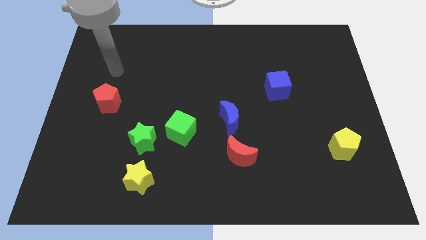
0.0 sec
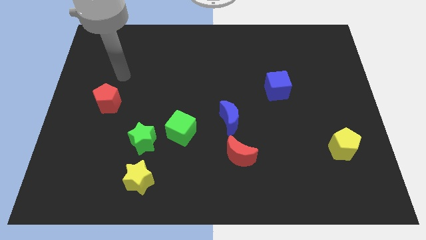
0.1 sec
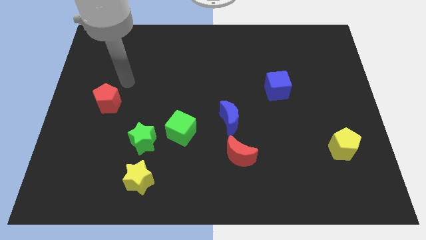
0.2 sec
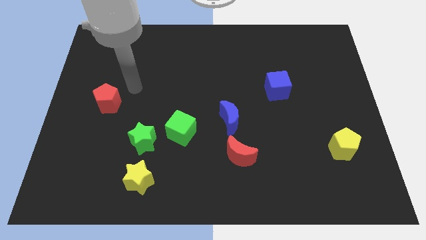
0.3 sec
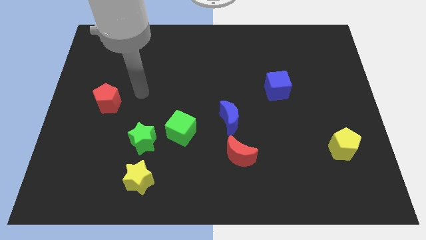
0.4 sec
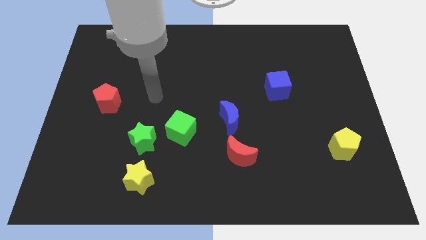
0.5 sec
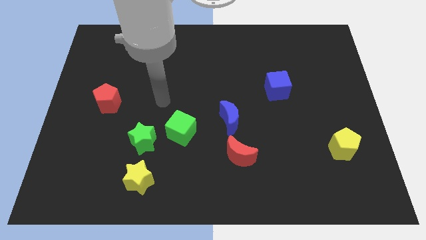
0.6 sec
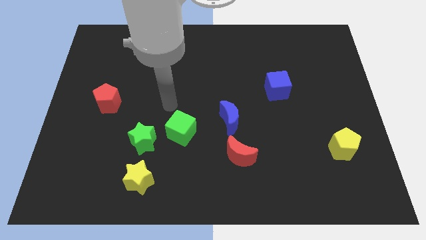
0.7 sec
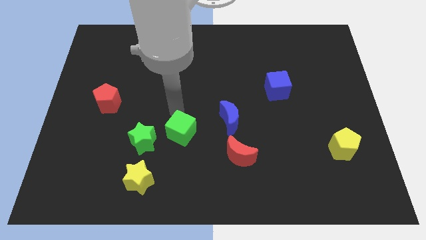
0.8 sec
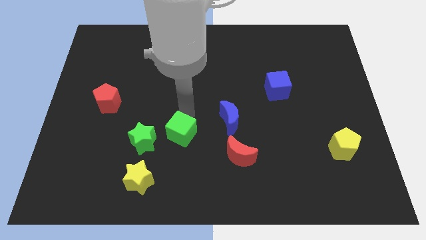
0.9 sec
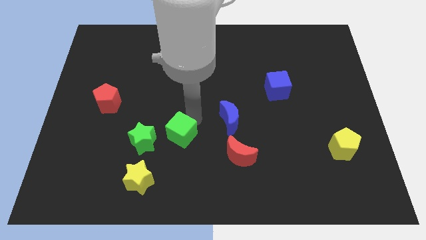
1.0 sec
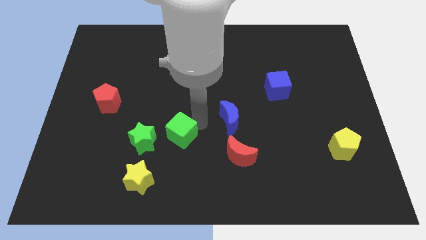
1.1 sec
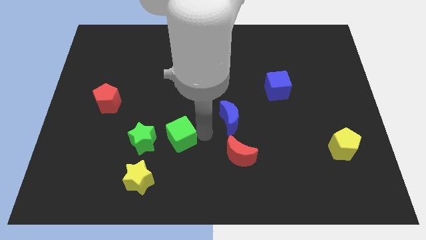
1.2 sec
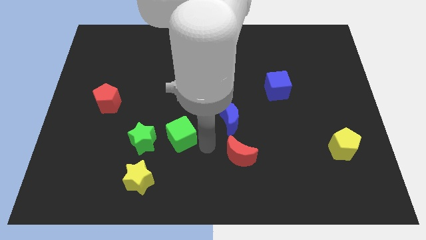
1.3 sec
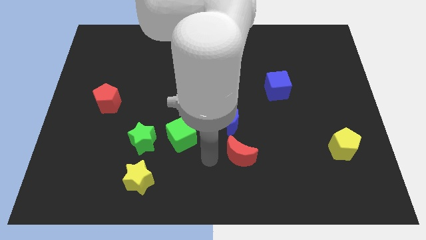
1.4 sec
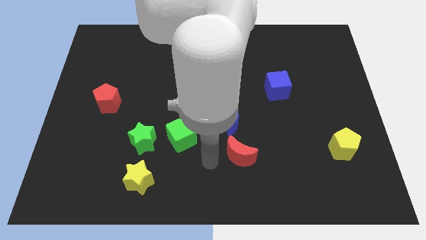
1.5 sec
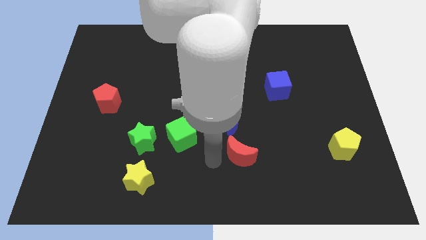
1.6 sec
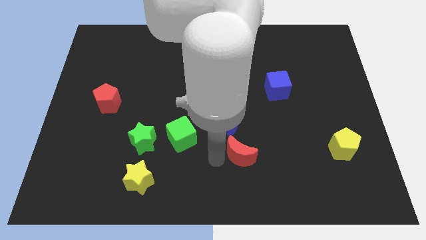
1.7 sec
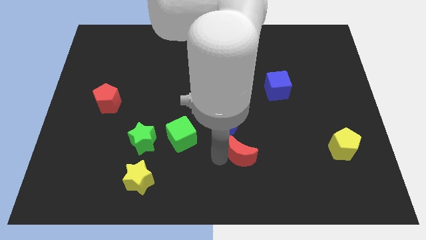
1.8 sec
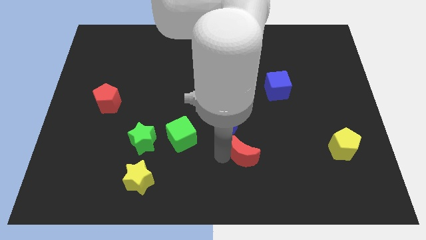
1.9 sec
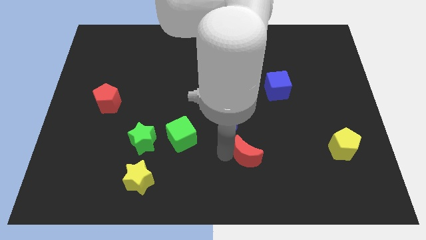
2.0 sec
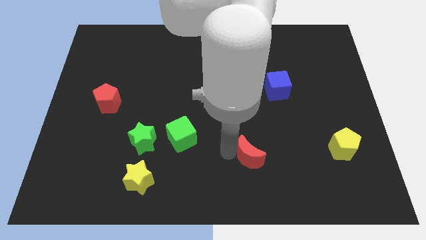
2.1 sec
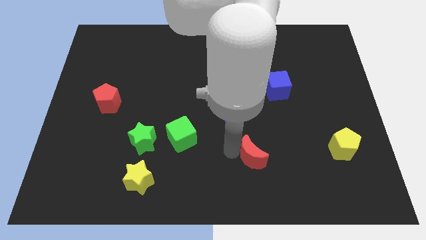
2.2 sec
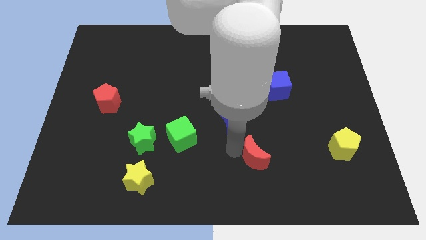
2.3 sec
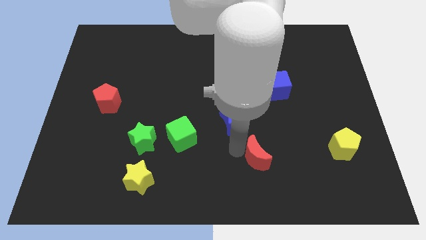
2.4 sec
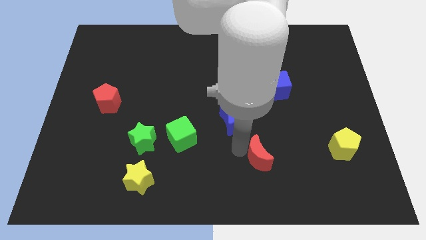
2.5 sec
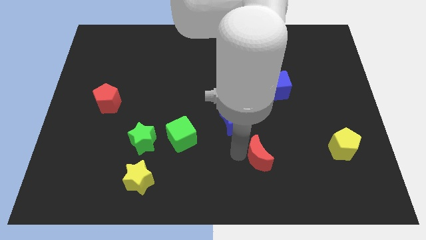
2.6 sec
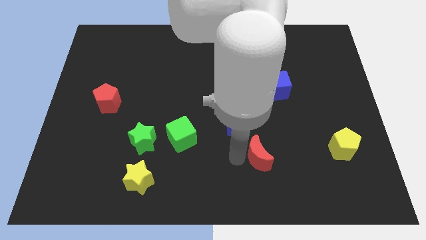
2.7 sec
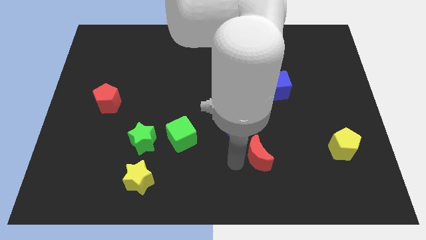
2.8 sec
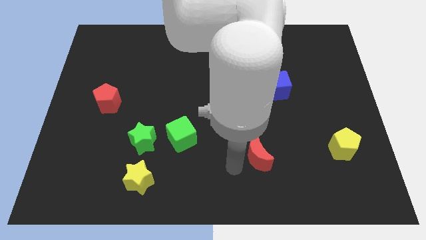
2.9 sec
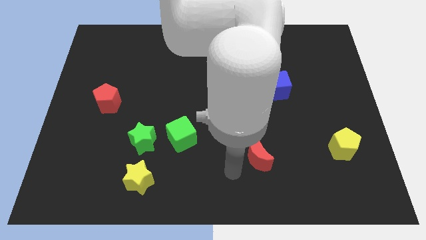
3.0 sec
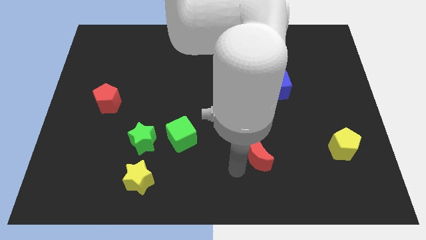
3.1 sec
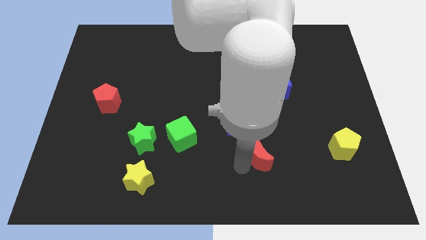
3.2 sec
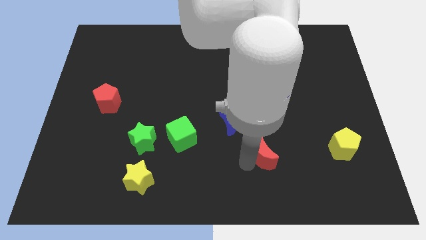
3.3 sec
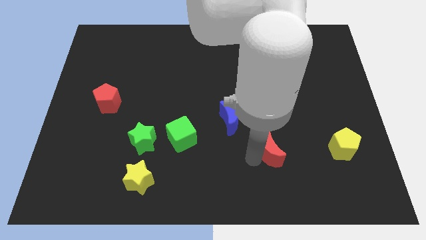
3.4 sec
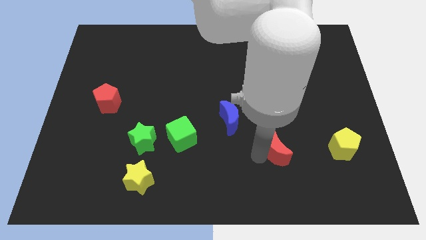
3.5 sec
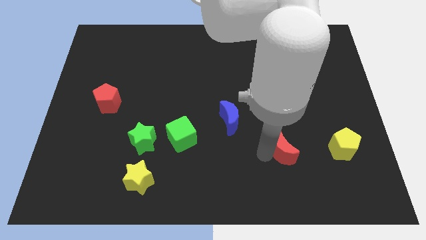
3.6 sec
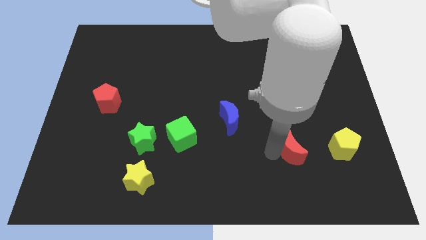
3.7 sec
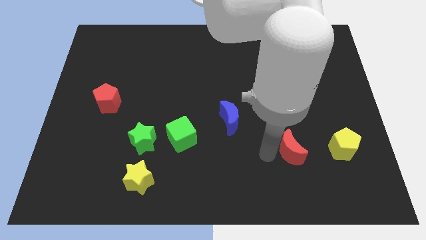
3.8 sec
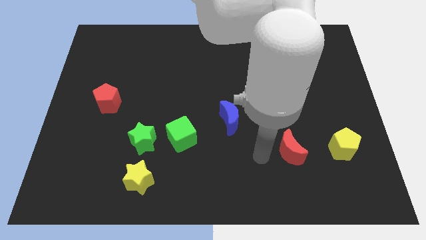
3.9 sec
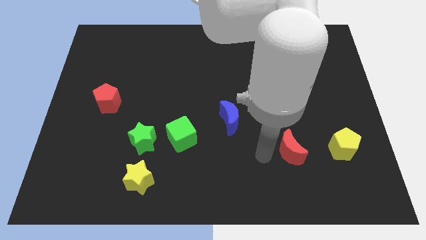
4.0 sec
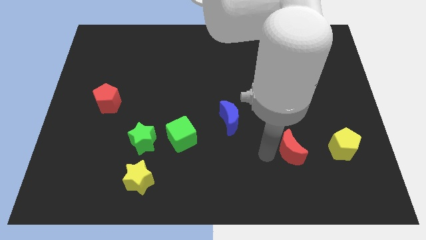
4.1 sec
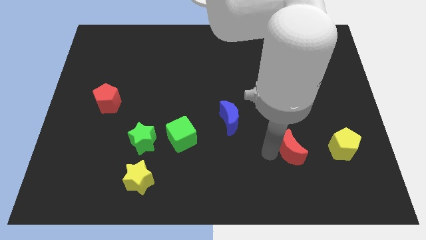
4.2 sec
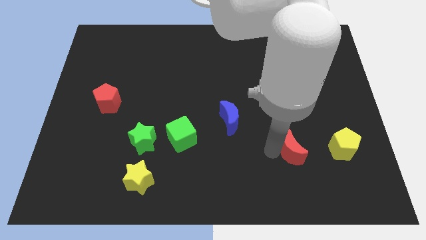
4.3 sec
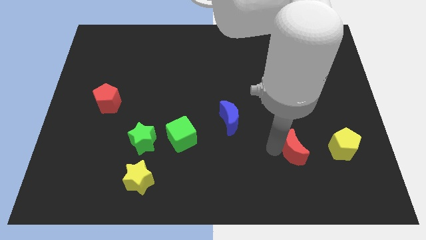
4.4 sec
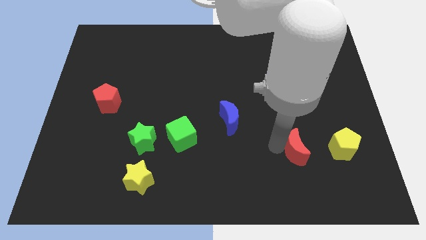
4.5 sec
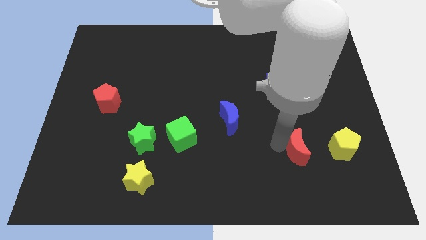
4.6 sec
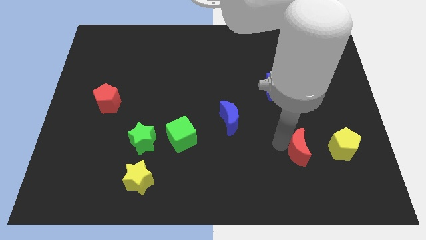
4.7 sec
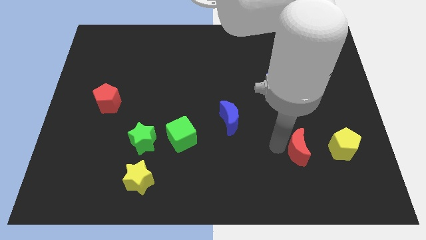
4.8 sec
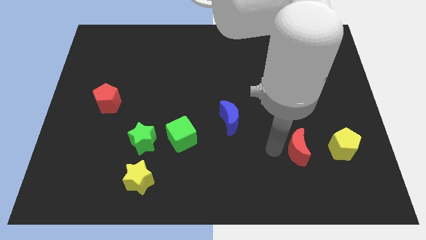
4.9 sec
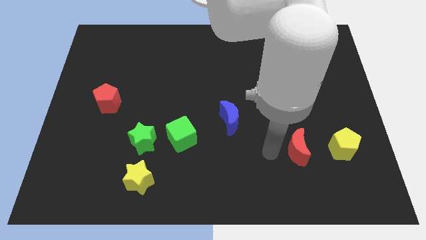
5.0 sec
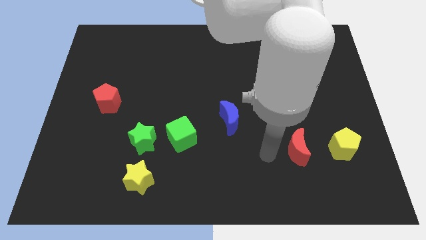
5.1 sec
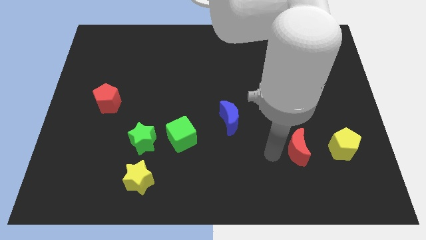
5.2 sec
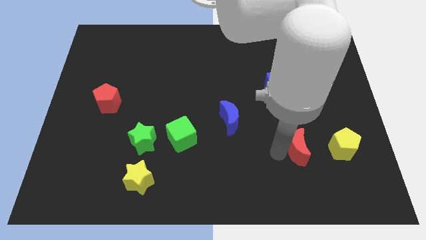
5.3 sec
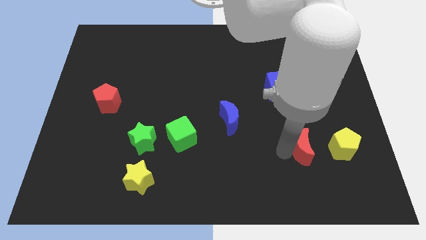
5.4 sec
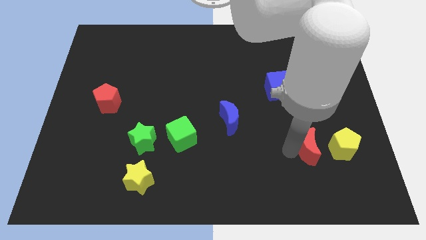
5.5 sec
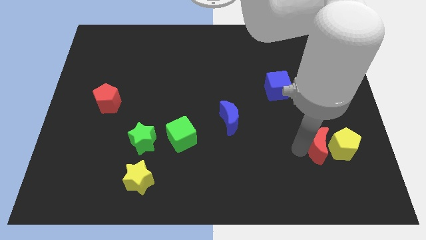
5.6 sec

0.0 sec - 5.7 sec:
slide the red moon close to the yellow pentagon

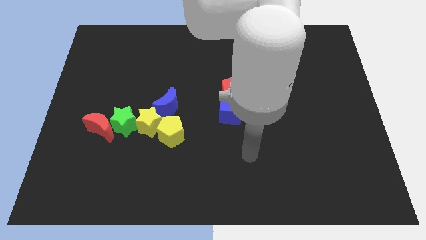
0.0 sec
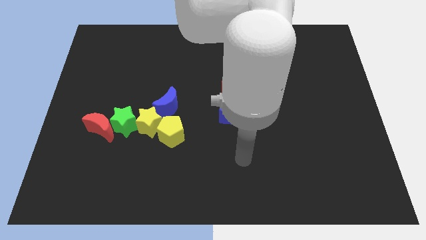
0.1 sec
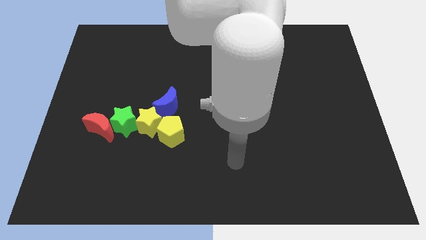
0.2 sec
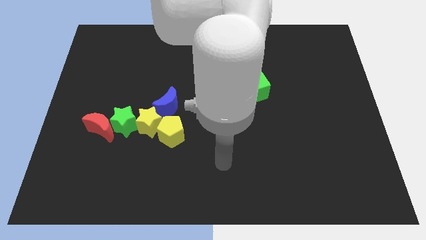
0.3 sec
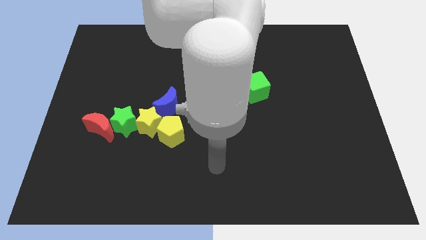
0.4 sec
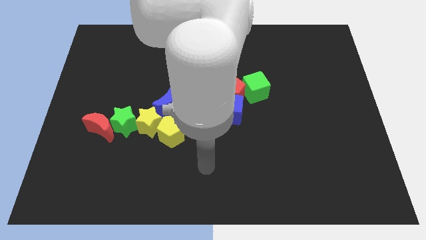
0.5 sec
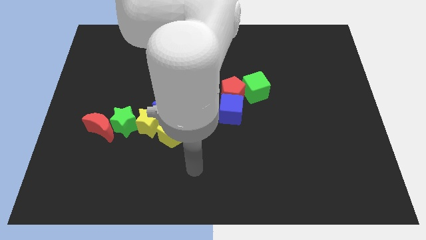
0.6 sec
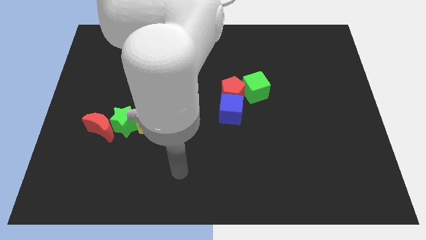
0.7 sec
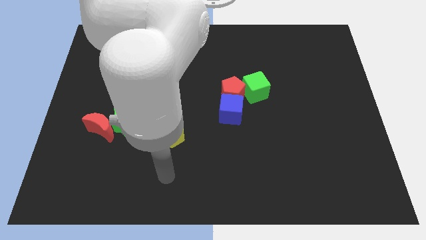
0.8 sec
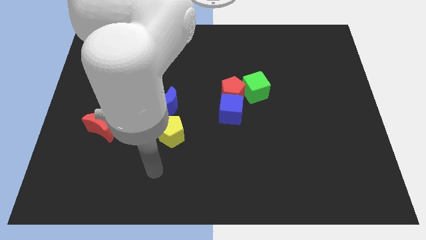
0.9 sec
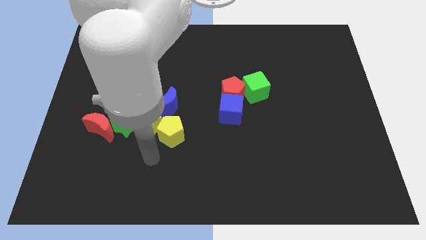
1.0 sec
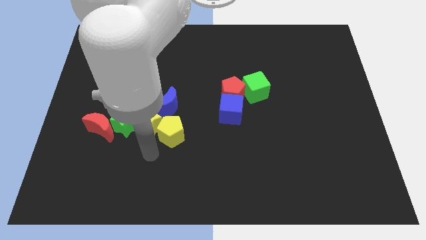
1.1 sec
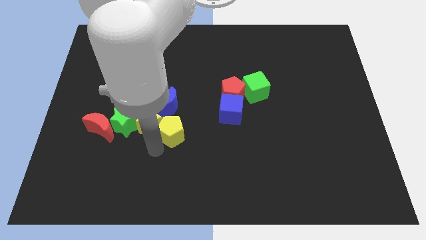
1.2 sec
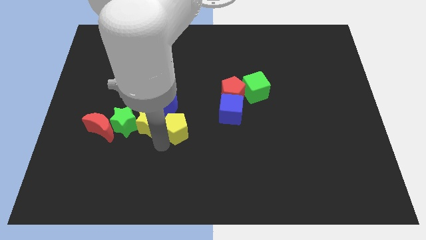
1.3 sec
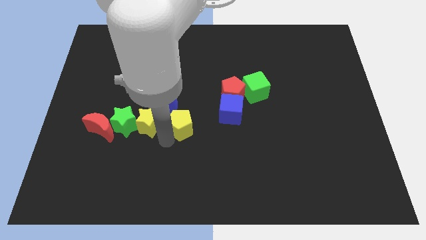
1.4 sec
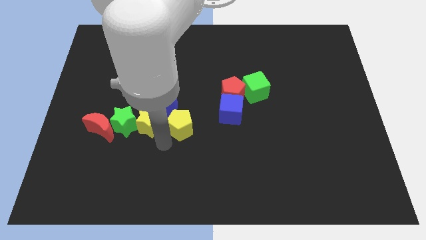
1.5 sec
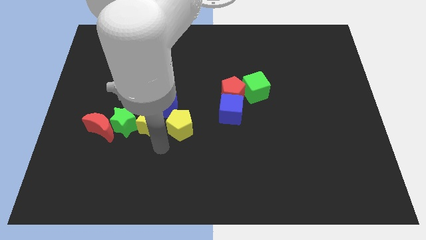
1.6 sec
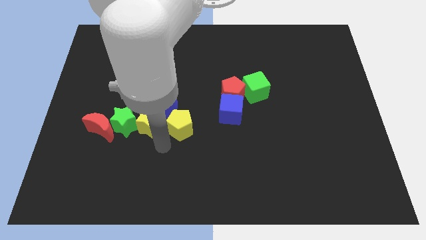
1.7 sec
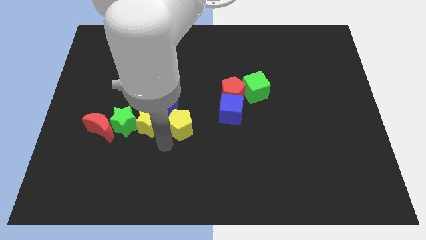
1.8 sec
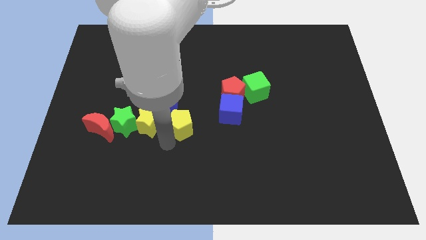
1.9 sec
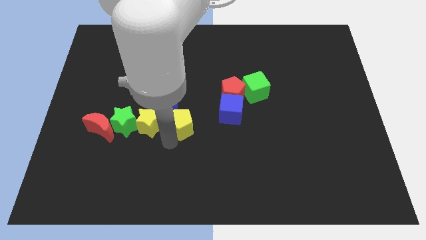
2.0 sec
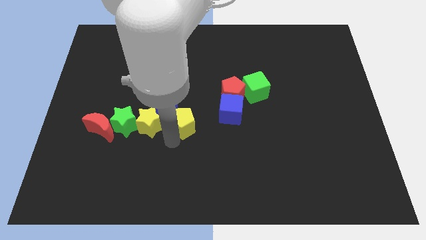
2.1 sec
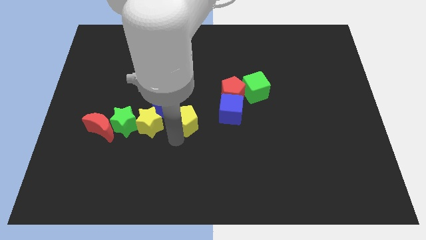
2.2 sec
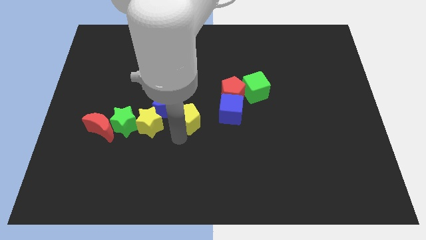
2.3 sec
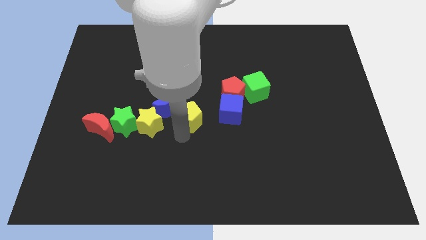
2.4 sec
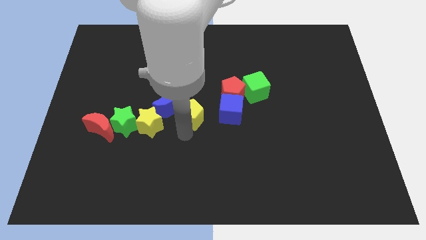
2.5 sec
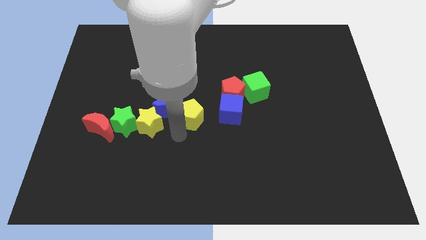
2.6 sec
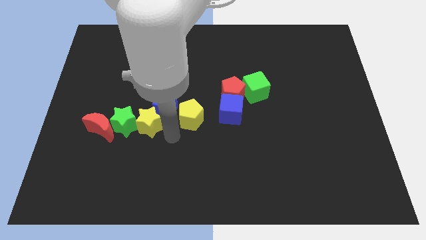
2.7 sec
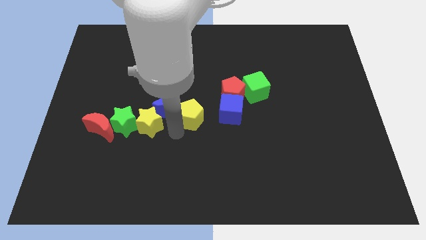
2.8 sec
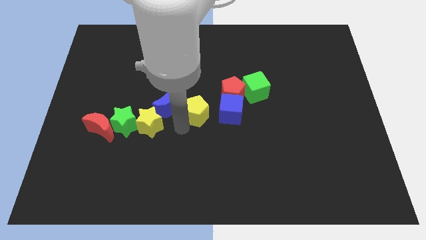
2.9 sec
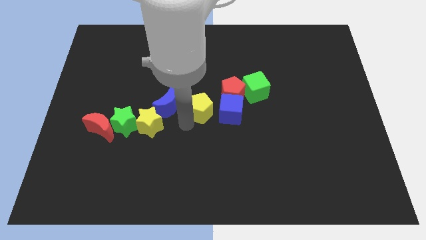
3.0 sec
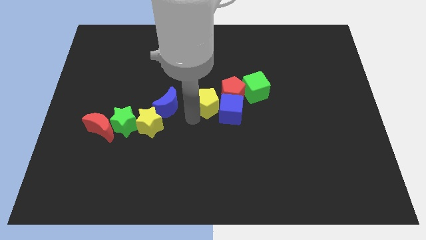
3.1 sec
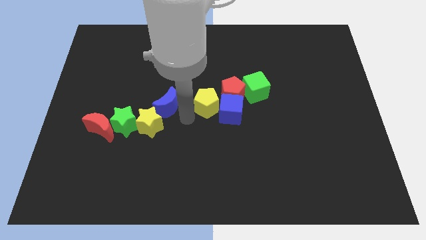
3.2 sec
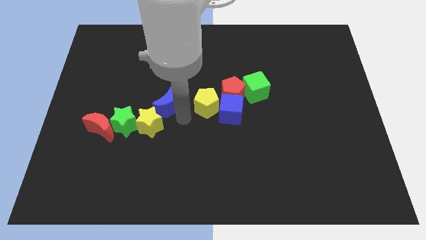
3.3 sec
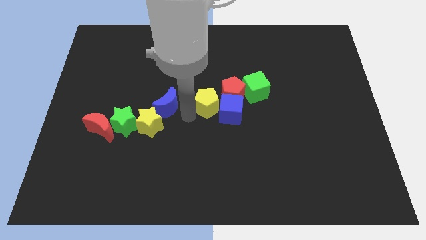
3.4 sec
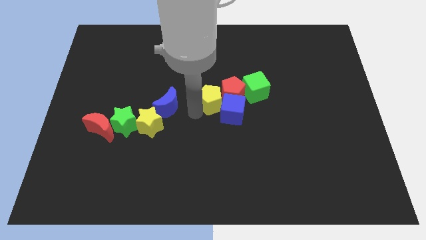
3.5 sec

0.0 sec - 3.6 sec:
move the yellow pentagon close to the red pentagon
